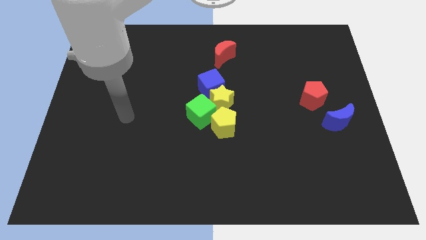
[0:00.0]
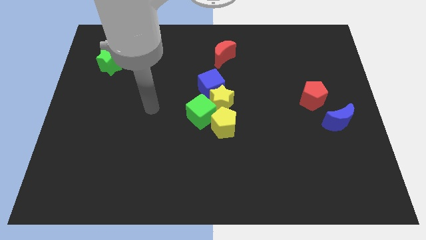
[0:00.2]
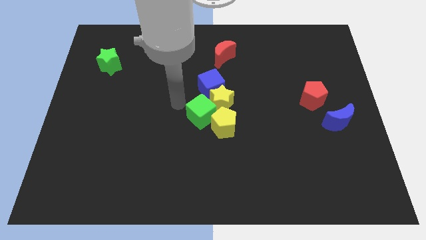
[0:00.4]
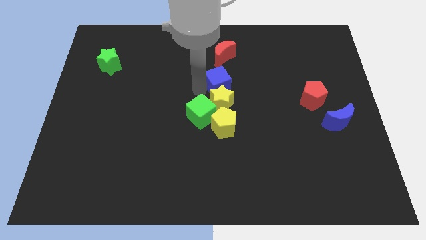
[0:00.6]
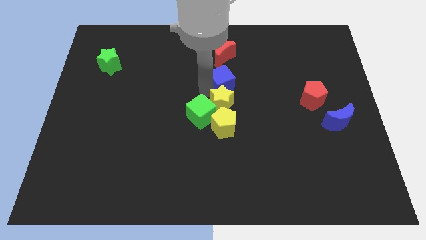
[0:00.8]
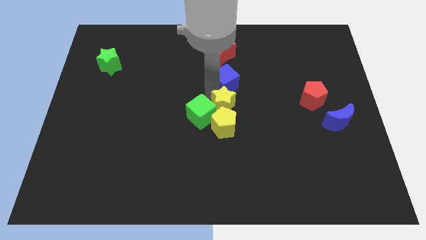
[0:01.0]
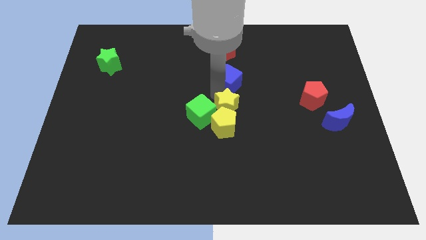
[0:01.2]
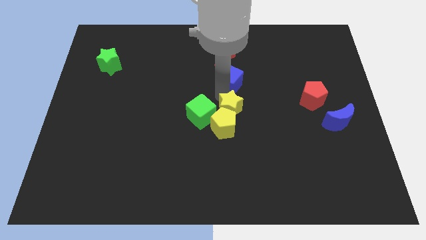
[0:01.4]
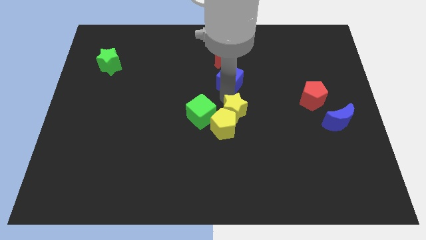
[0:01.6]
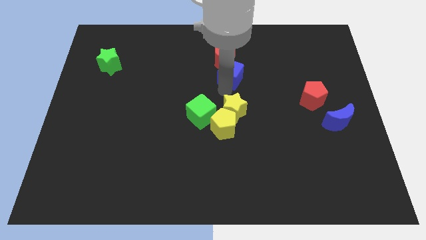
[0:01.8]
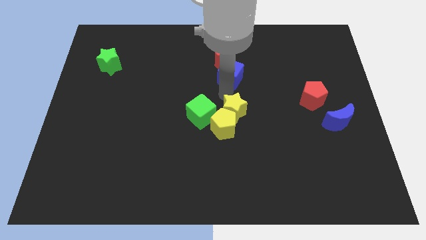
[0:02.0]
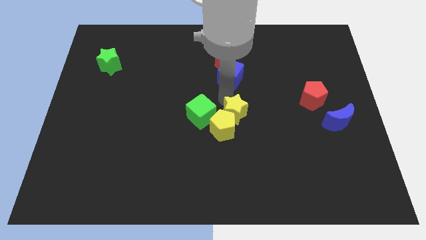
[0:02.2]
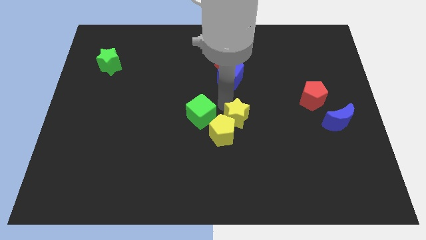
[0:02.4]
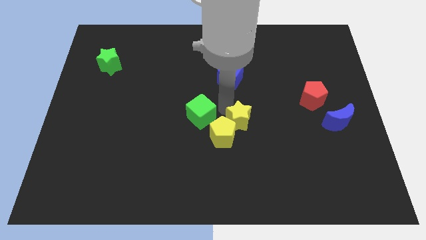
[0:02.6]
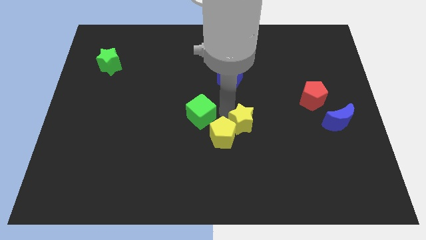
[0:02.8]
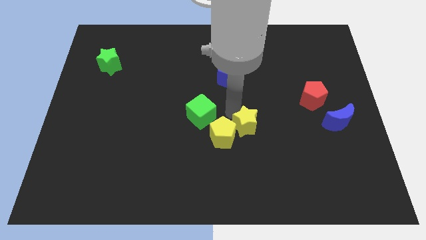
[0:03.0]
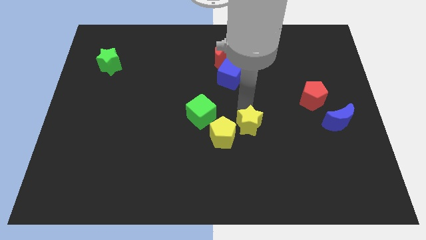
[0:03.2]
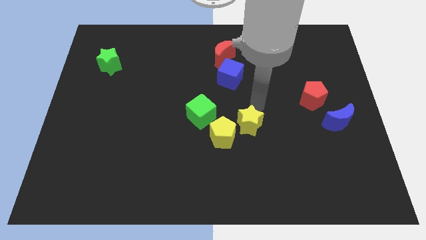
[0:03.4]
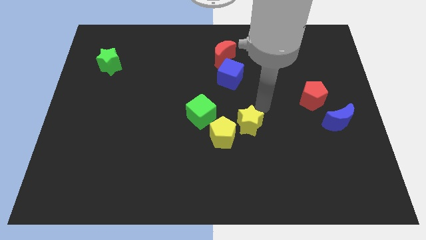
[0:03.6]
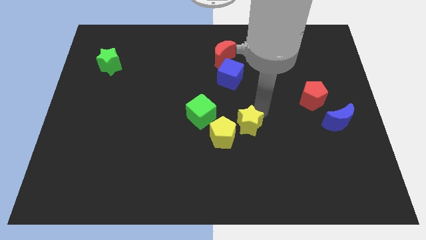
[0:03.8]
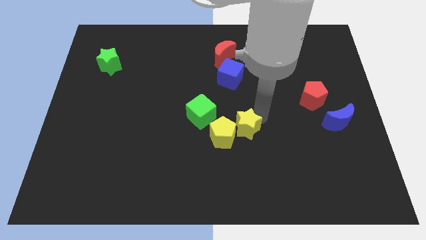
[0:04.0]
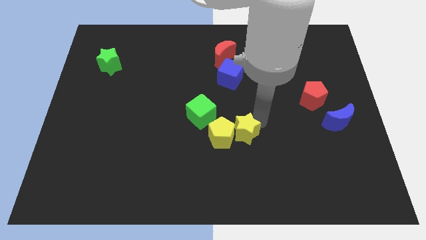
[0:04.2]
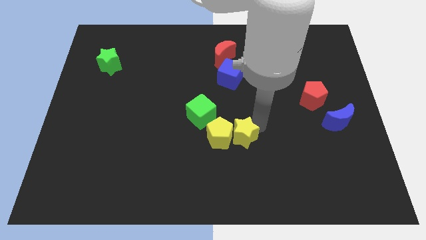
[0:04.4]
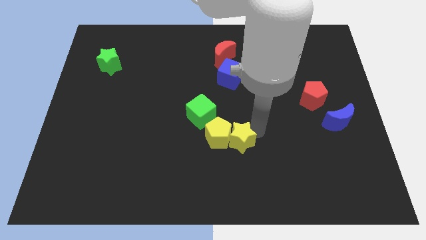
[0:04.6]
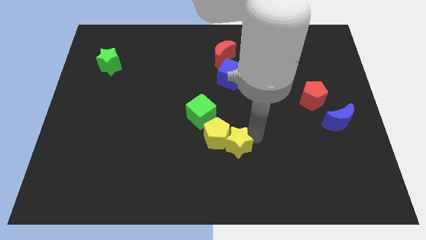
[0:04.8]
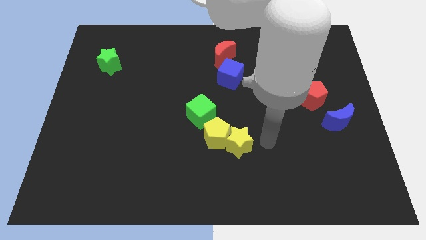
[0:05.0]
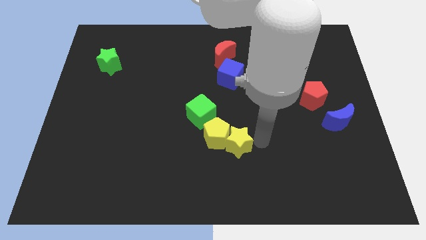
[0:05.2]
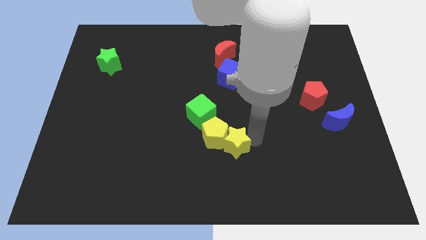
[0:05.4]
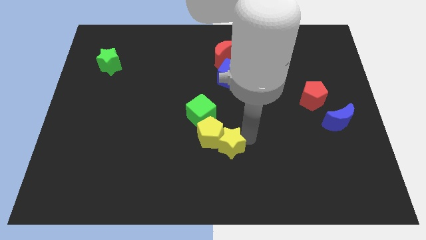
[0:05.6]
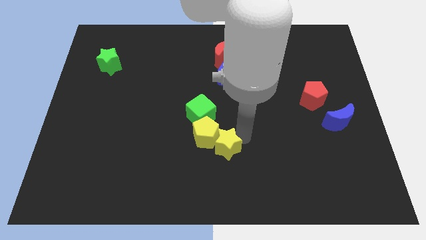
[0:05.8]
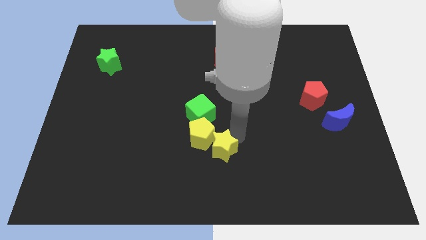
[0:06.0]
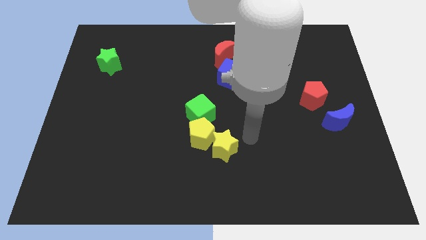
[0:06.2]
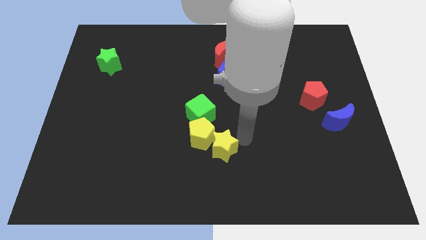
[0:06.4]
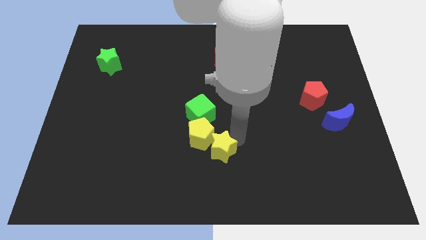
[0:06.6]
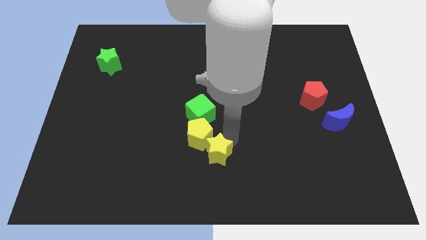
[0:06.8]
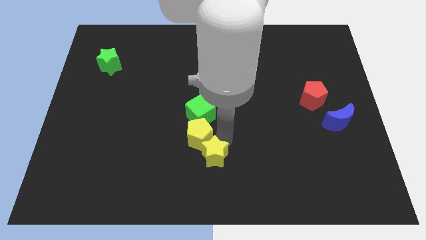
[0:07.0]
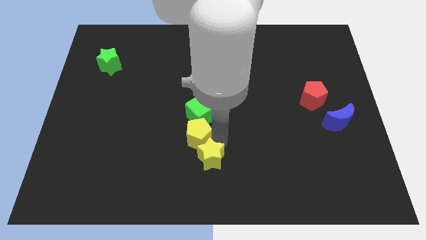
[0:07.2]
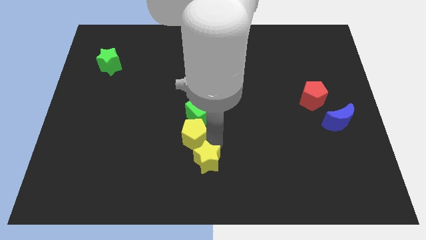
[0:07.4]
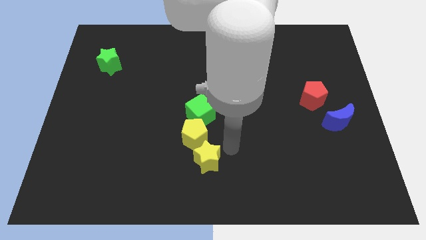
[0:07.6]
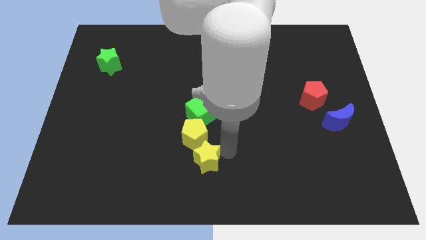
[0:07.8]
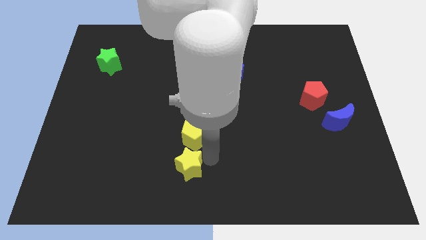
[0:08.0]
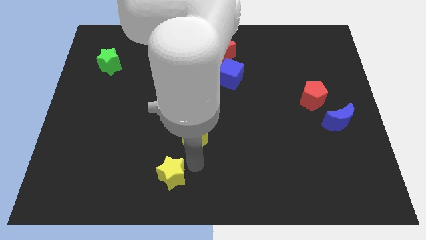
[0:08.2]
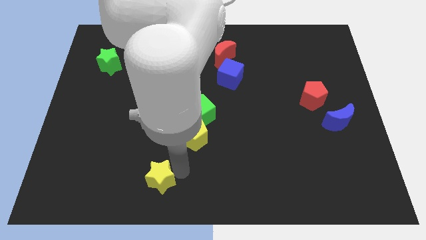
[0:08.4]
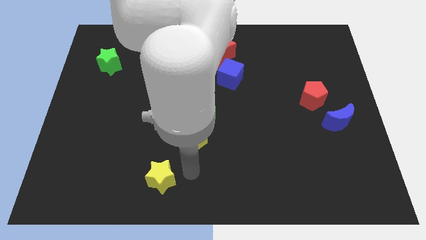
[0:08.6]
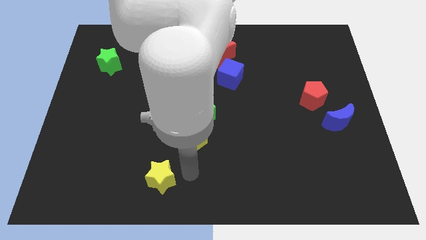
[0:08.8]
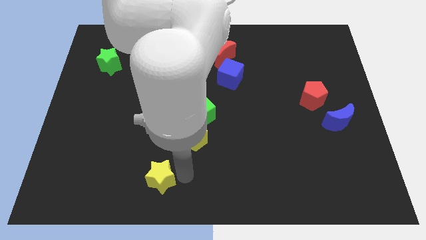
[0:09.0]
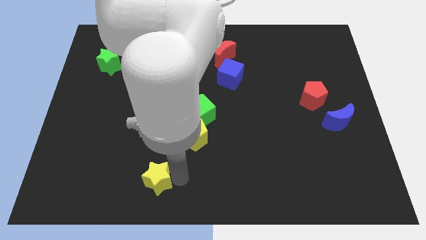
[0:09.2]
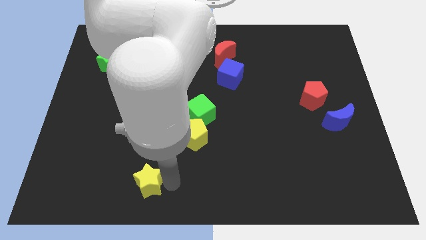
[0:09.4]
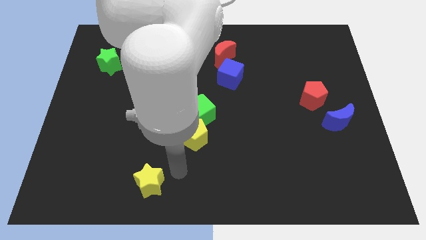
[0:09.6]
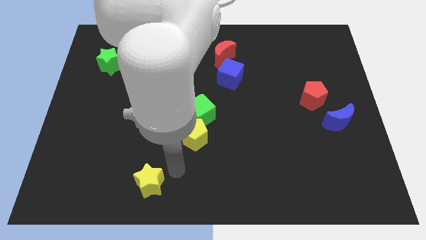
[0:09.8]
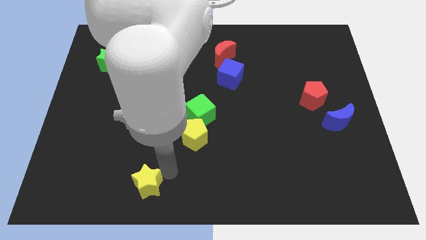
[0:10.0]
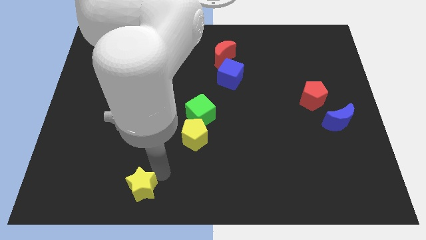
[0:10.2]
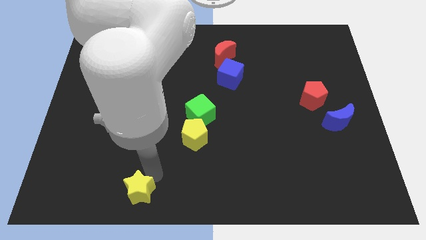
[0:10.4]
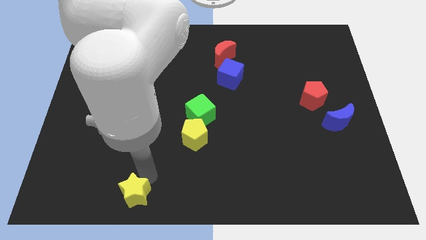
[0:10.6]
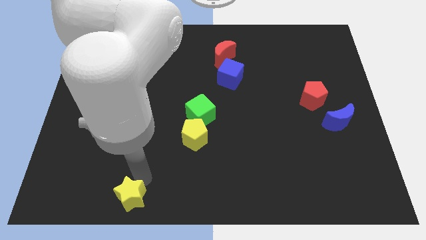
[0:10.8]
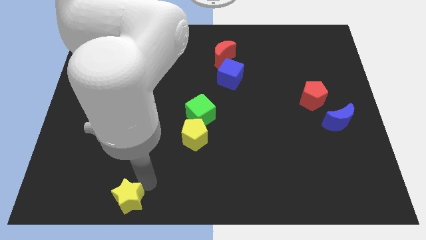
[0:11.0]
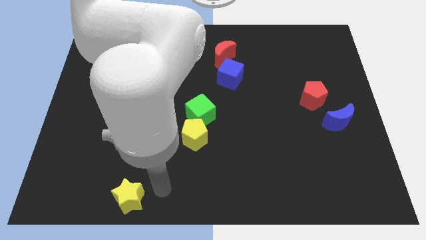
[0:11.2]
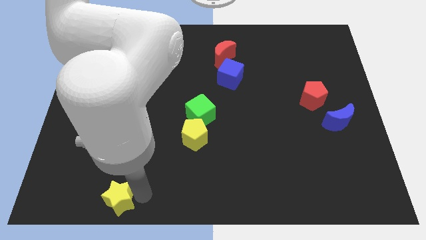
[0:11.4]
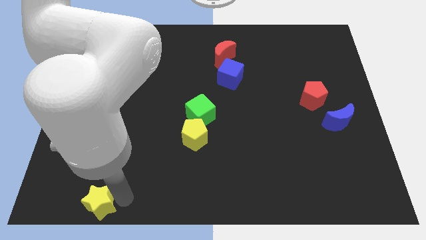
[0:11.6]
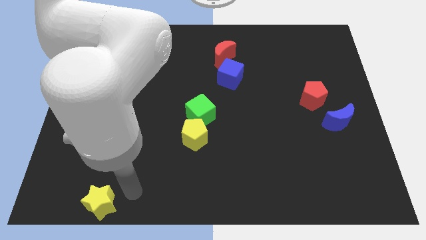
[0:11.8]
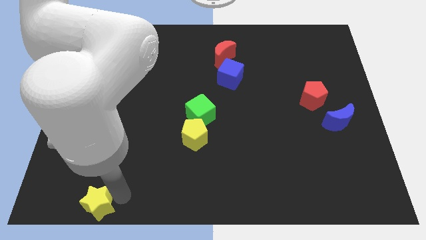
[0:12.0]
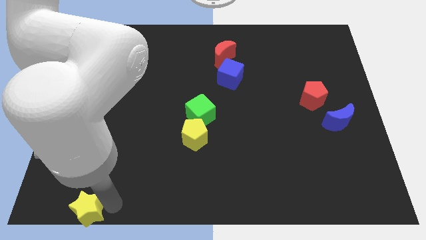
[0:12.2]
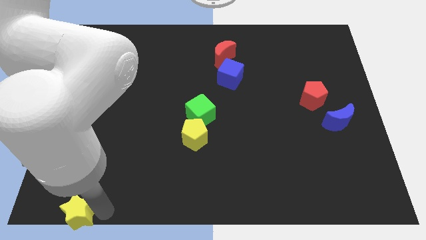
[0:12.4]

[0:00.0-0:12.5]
move the yellow star to the bottom left corner
